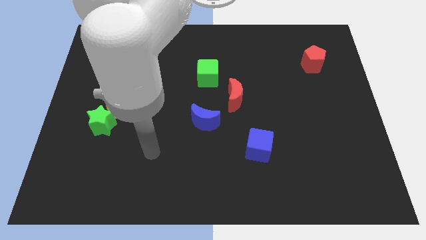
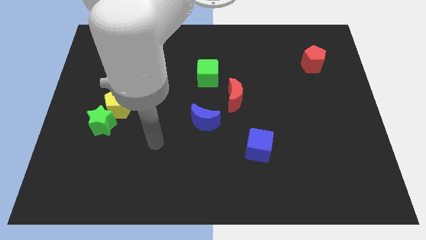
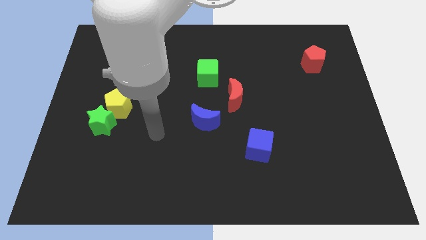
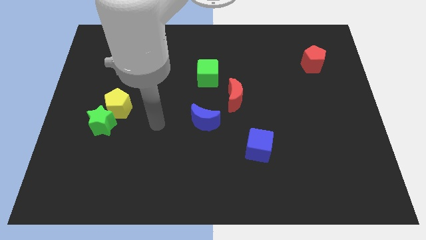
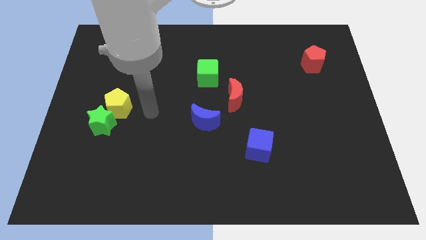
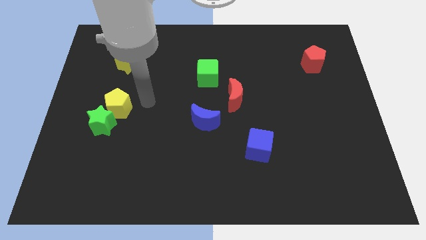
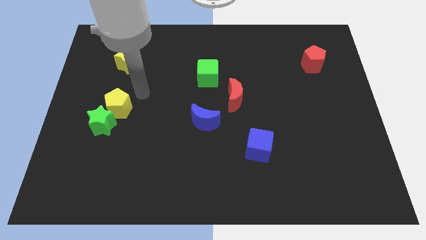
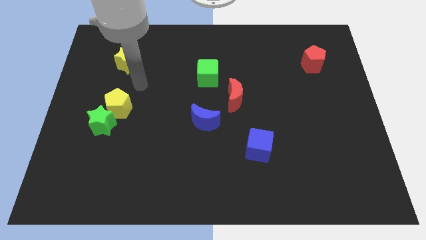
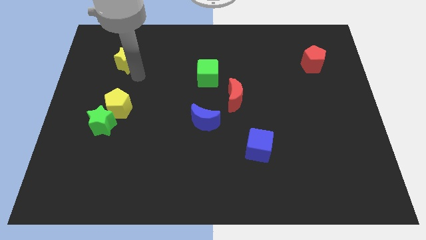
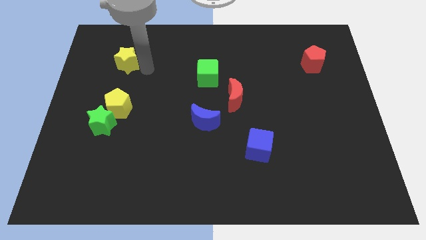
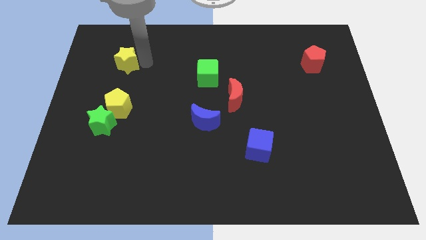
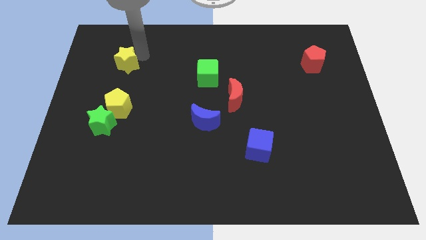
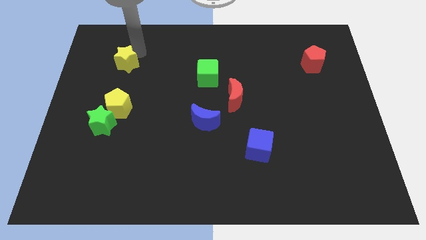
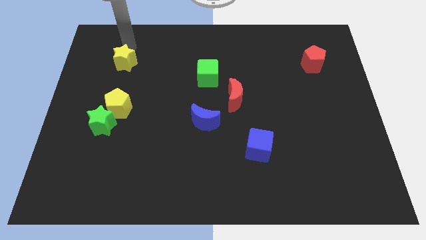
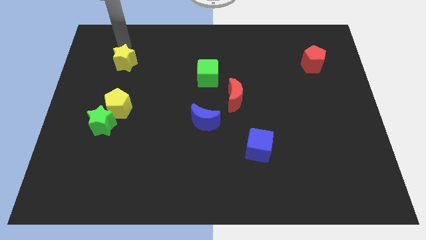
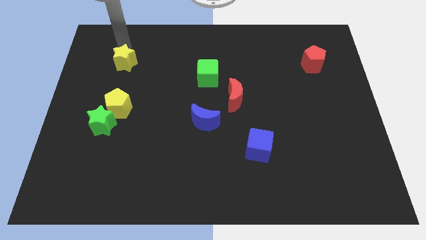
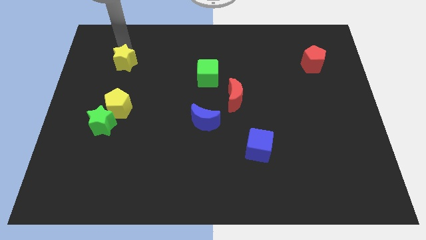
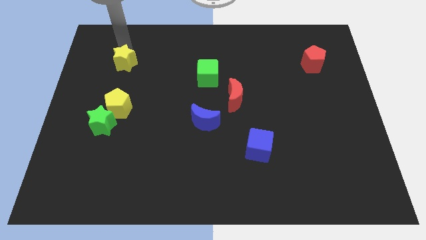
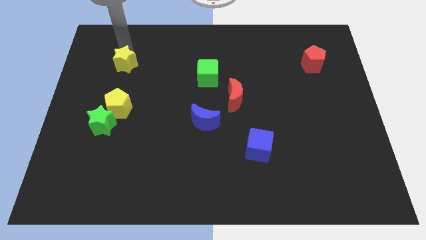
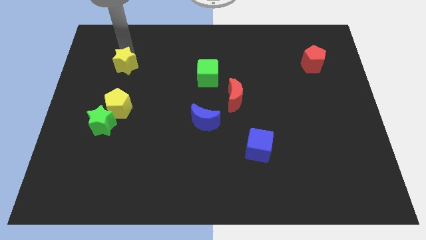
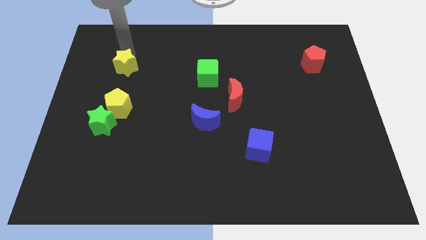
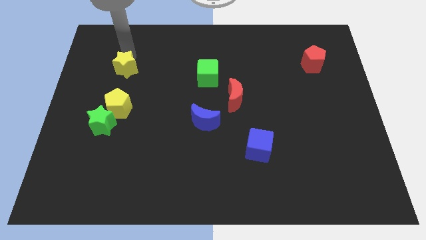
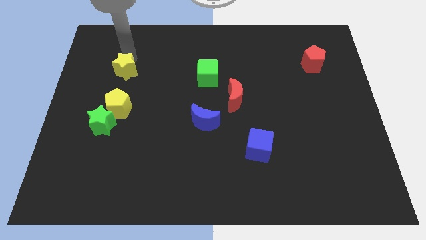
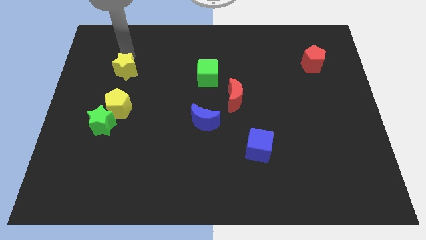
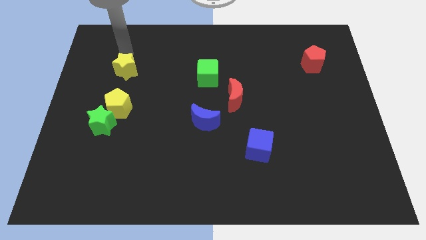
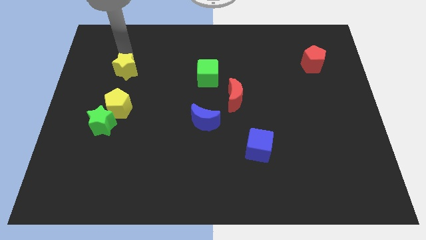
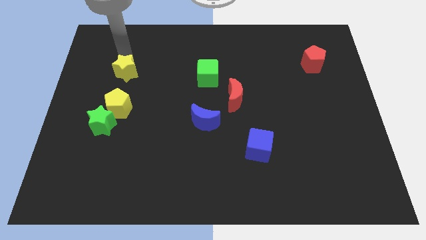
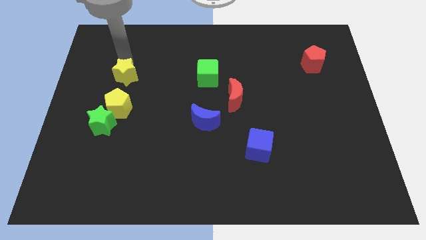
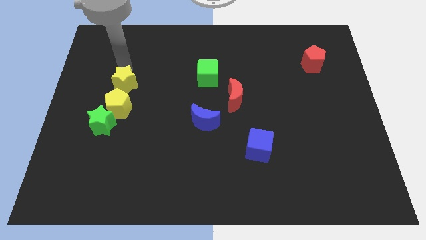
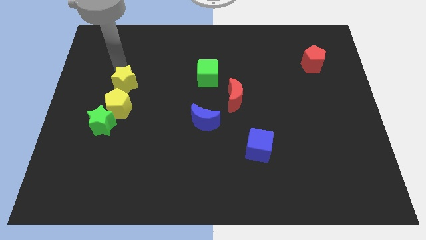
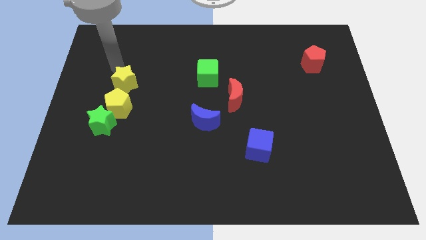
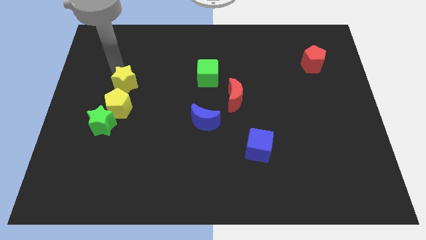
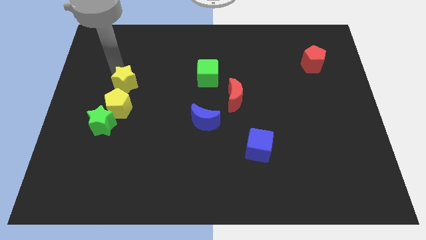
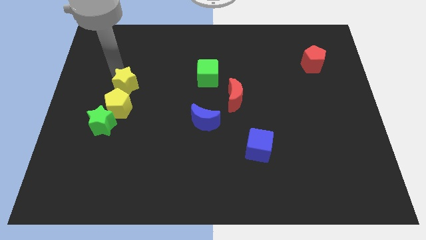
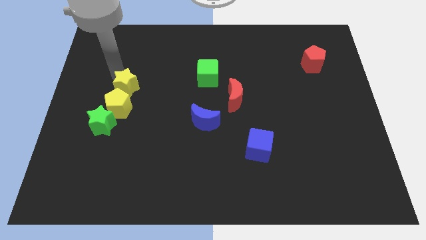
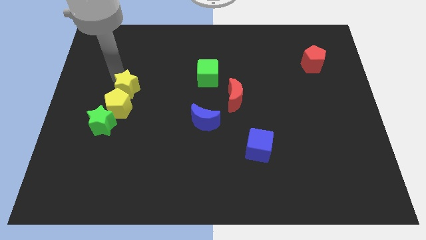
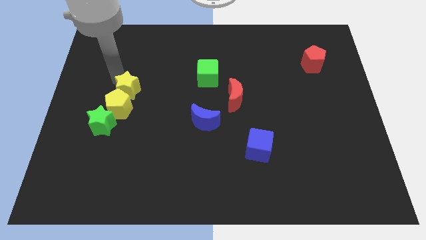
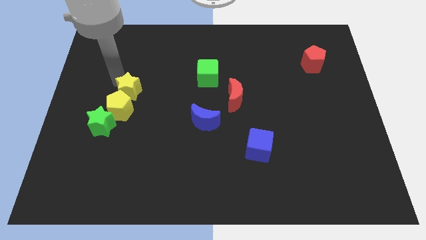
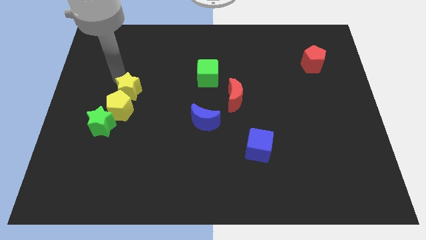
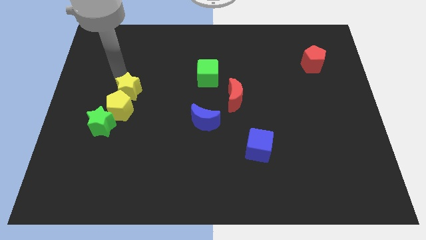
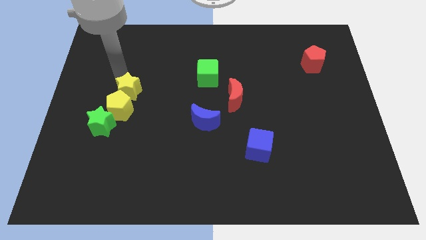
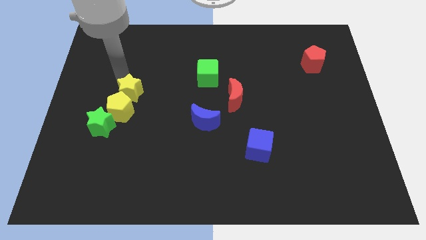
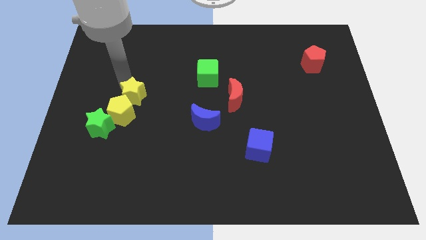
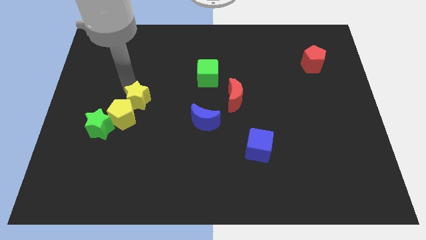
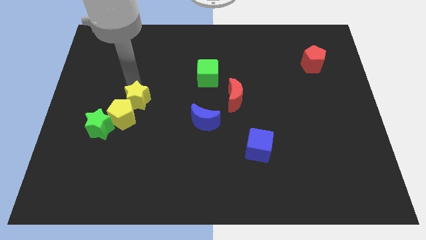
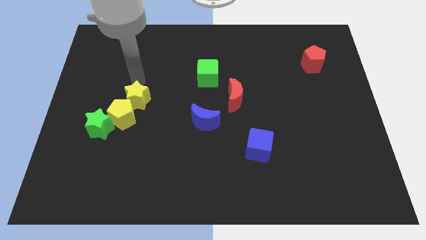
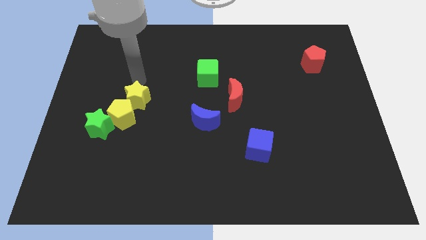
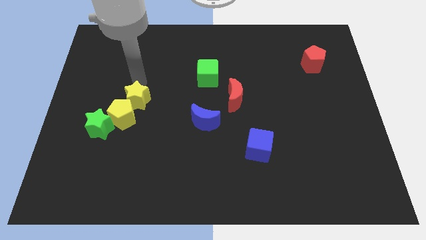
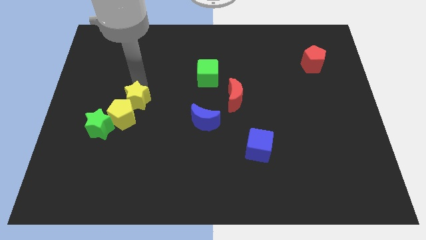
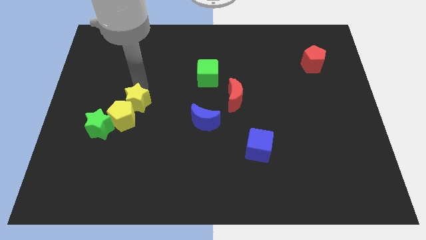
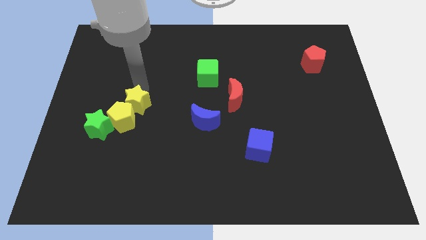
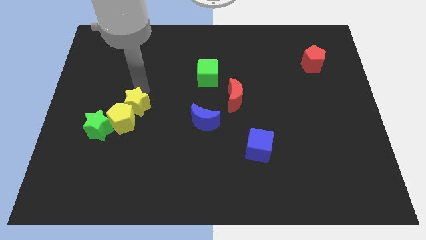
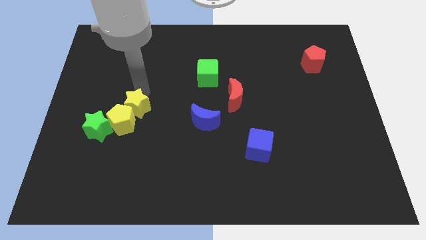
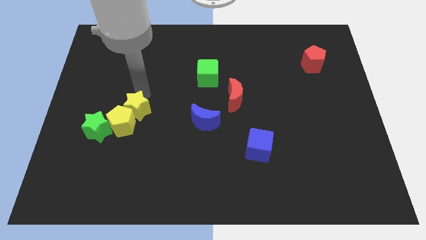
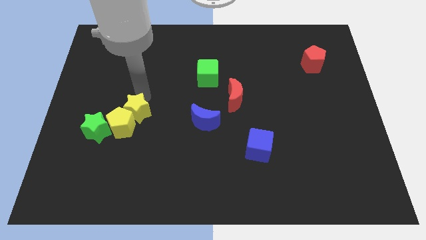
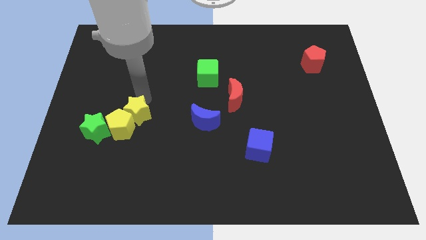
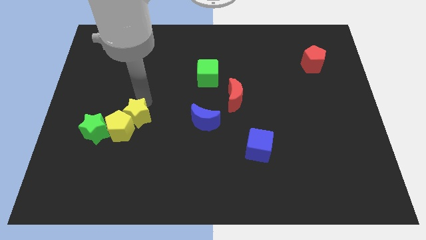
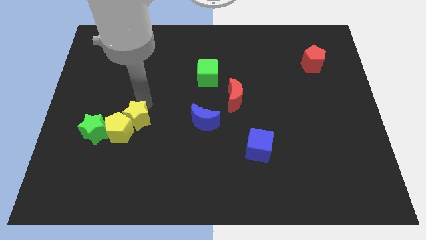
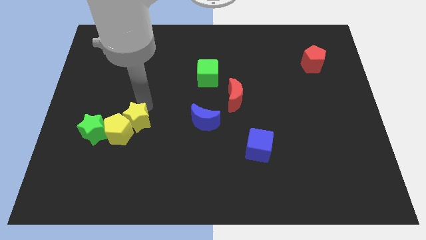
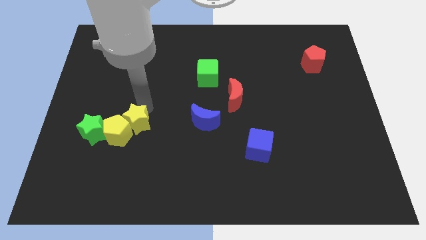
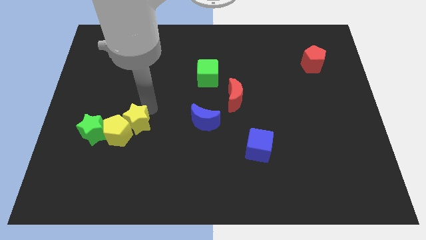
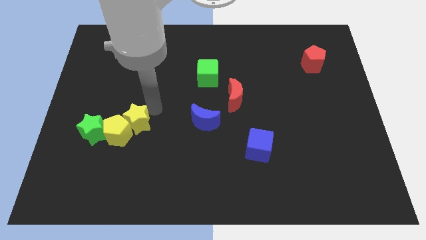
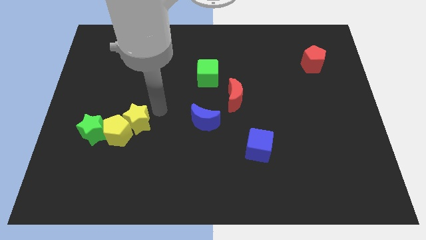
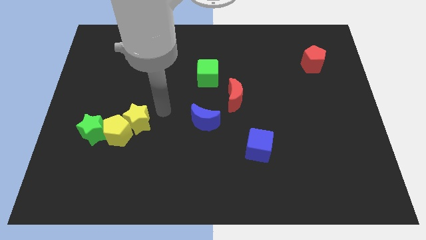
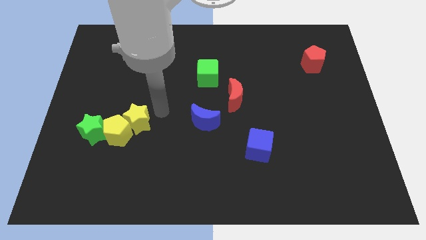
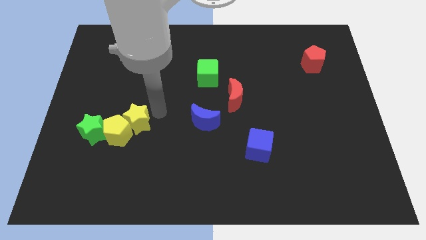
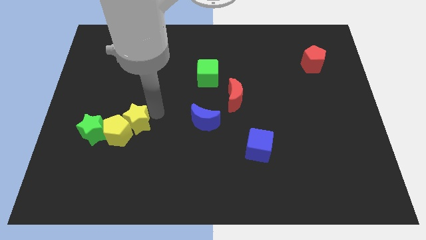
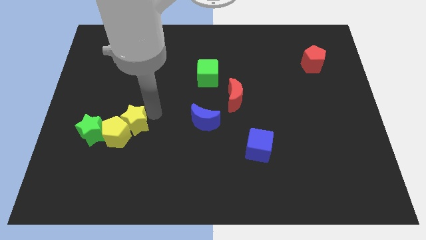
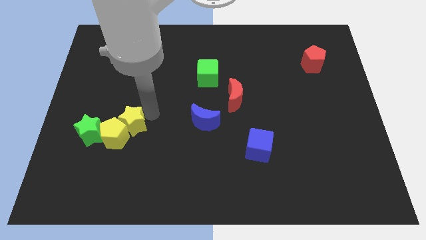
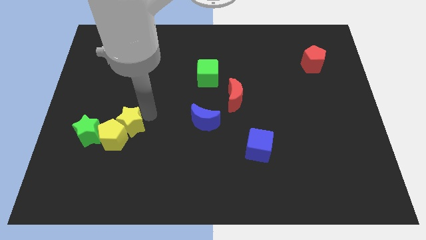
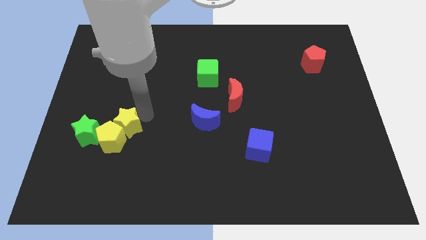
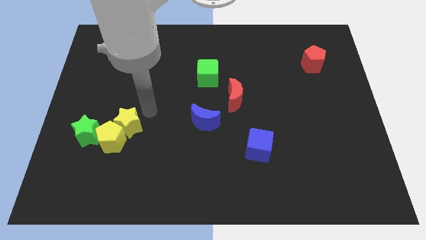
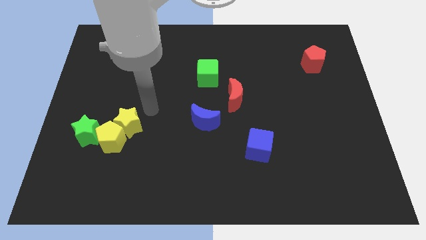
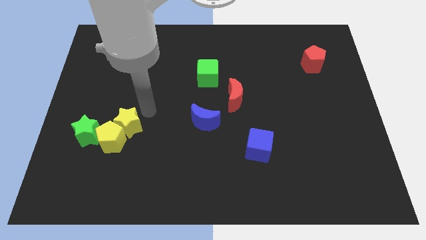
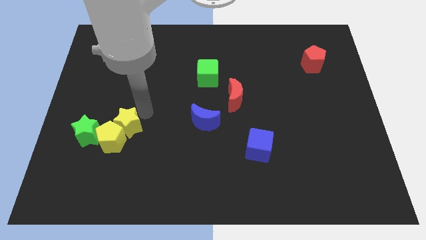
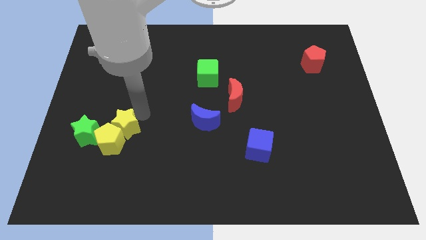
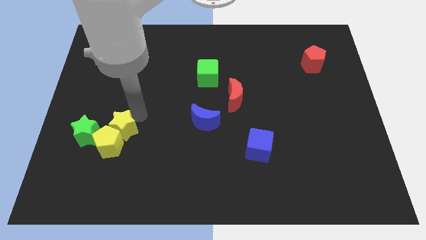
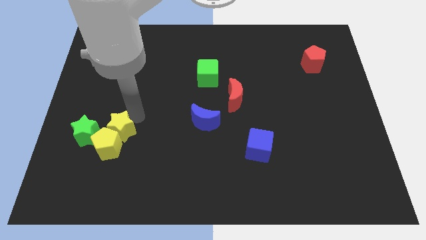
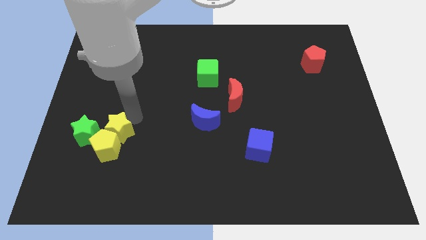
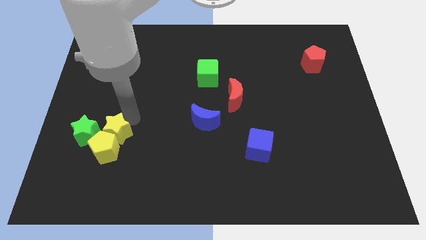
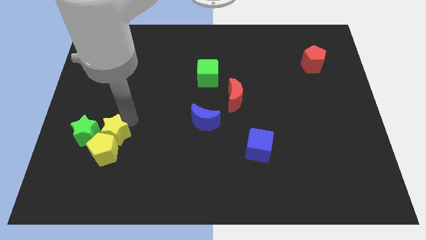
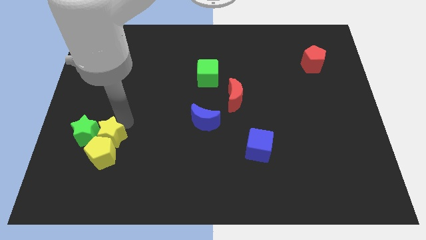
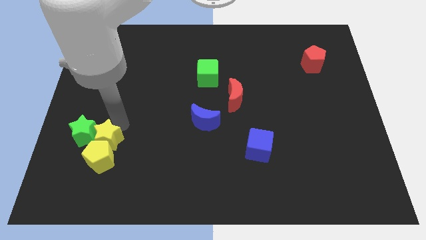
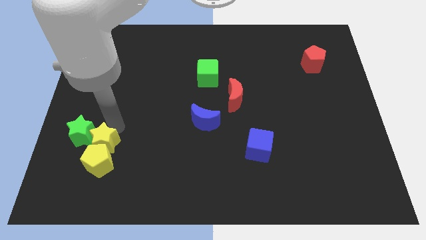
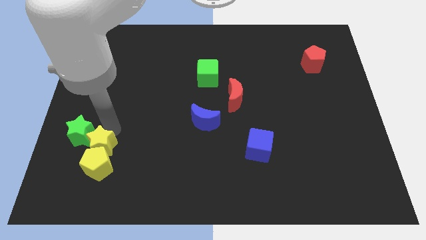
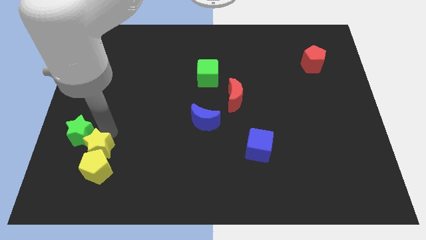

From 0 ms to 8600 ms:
slide the yellow star to the bottom side of the green star
